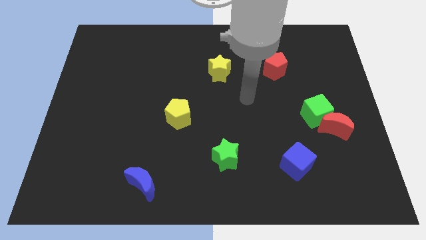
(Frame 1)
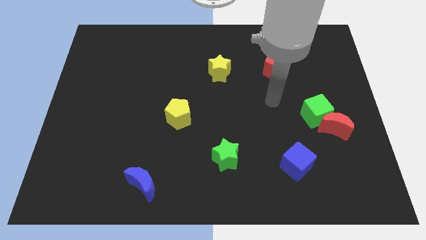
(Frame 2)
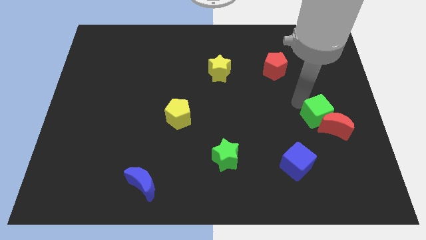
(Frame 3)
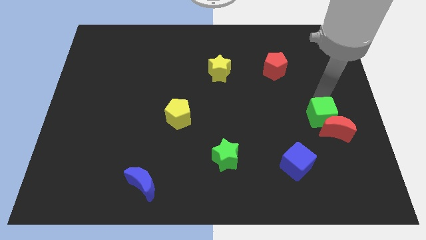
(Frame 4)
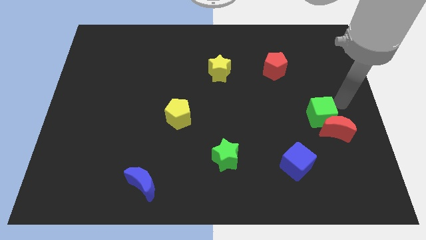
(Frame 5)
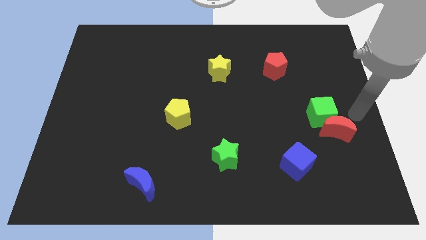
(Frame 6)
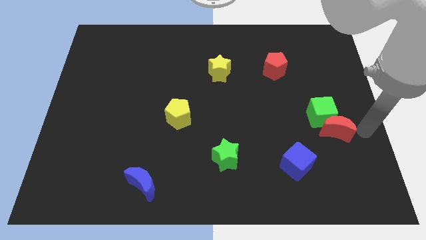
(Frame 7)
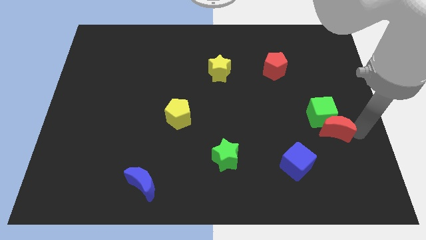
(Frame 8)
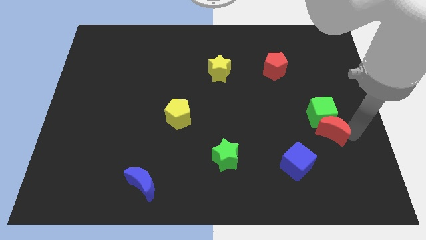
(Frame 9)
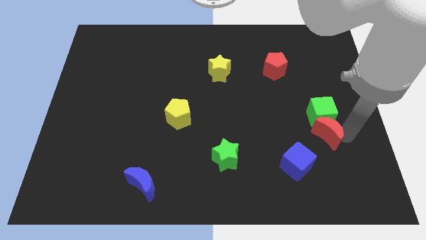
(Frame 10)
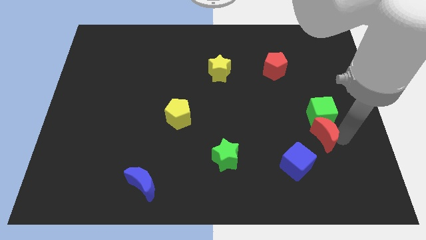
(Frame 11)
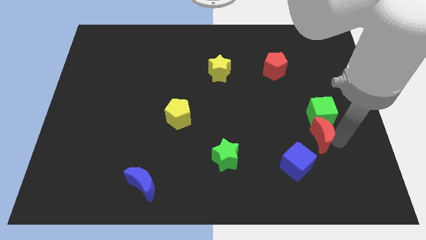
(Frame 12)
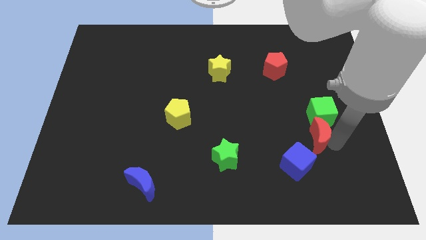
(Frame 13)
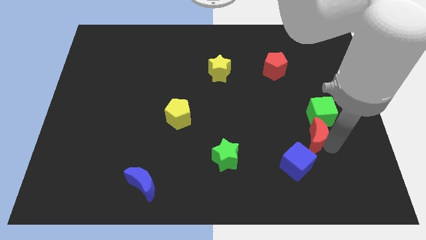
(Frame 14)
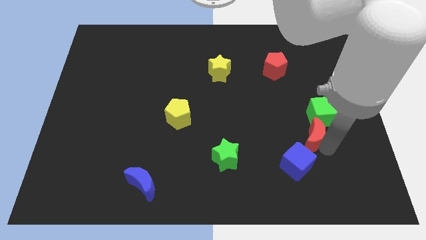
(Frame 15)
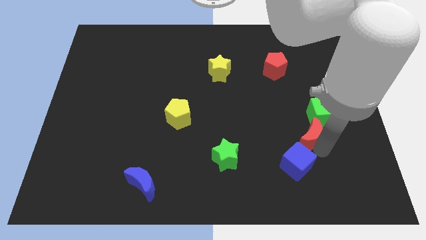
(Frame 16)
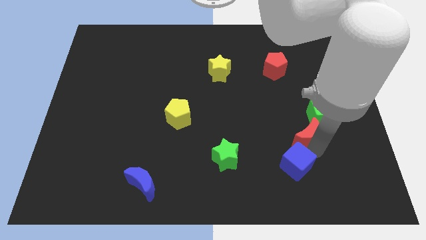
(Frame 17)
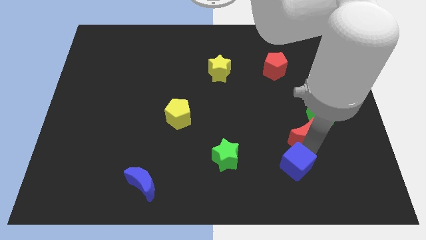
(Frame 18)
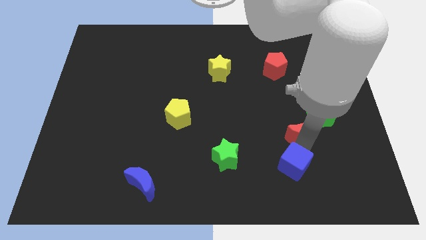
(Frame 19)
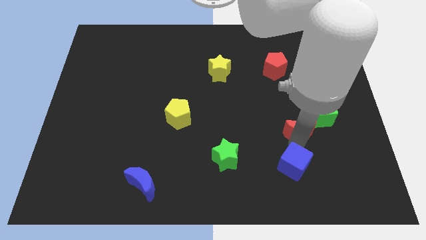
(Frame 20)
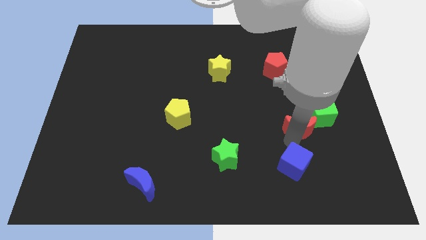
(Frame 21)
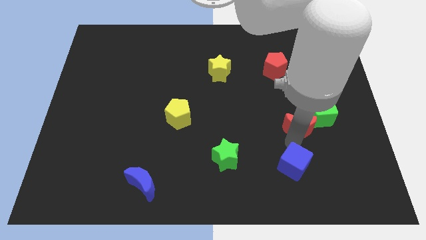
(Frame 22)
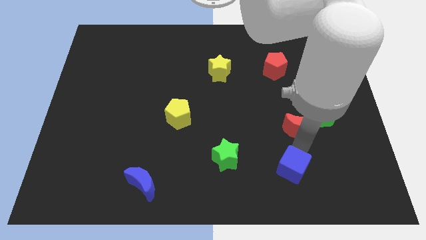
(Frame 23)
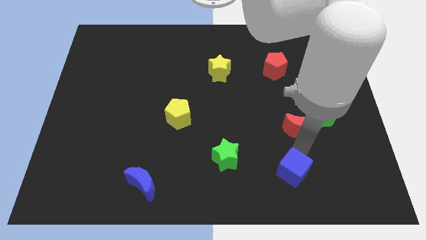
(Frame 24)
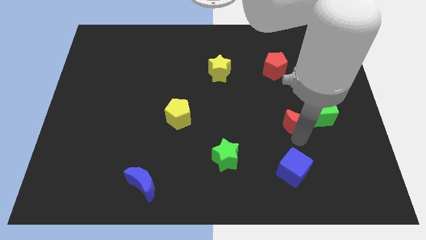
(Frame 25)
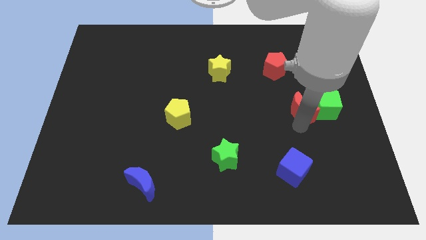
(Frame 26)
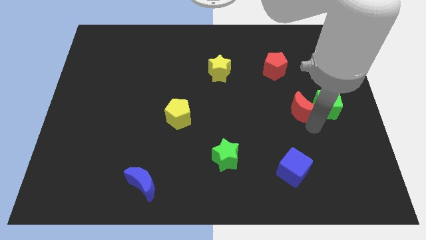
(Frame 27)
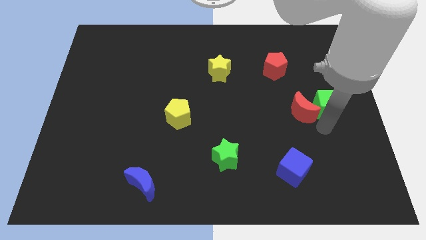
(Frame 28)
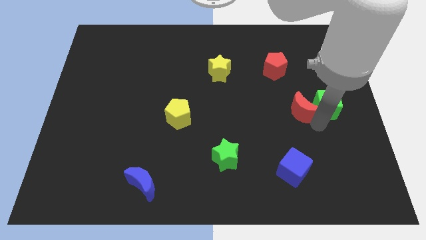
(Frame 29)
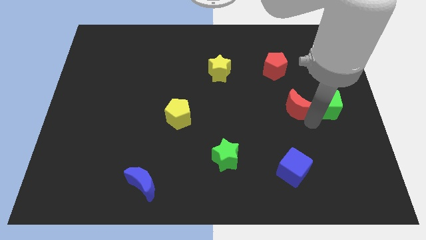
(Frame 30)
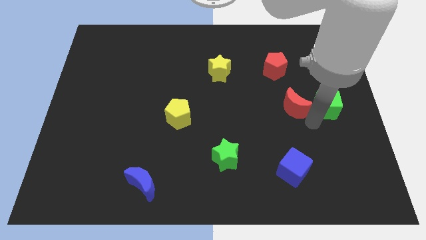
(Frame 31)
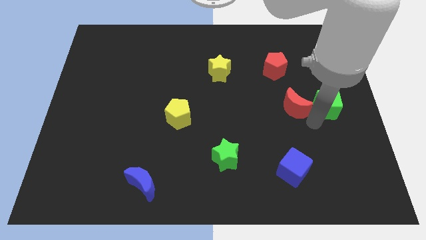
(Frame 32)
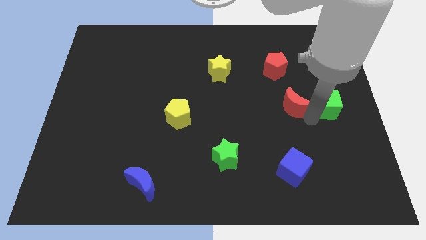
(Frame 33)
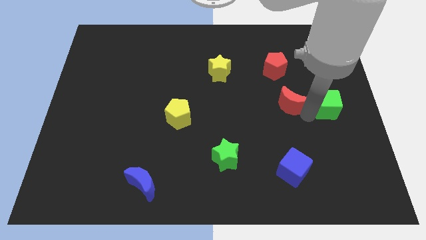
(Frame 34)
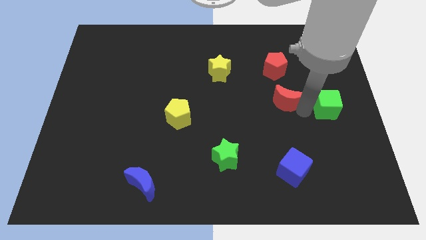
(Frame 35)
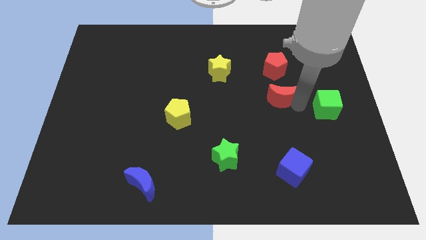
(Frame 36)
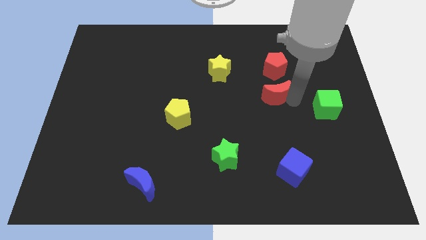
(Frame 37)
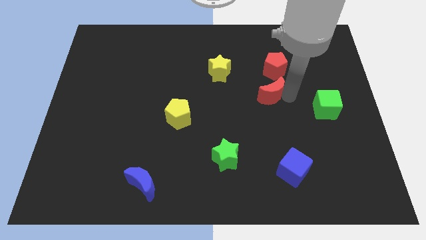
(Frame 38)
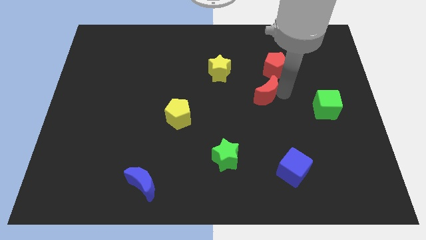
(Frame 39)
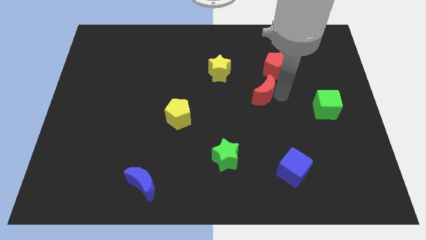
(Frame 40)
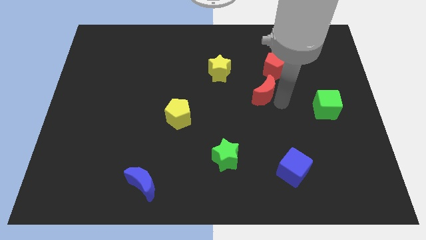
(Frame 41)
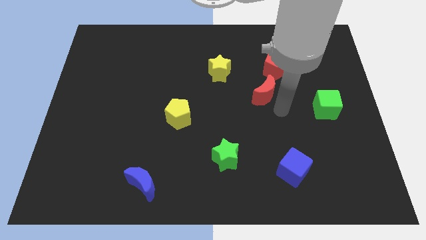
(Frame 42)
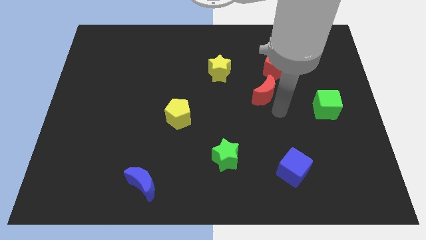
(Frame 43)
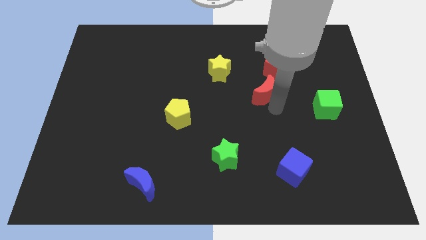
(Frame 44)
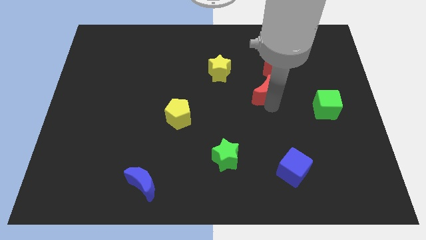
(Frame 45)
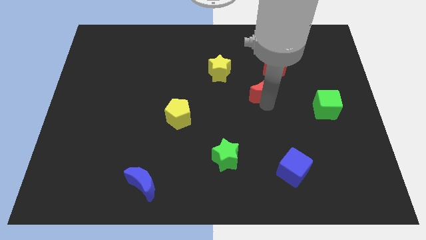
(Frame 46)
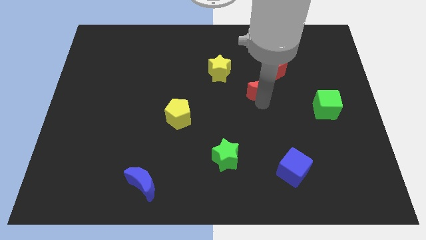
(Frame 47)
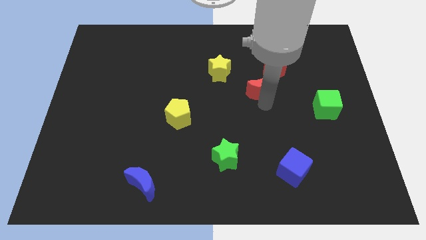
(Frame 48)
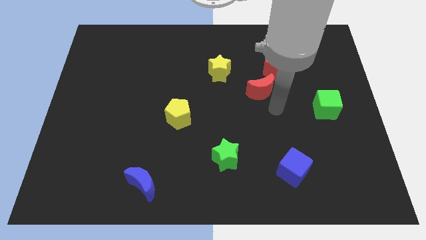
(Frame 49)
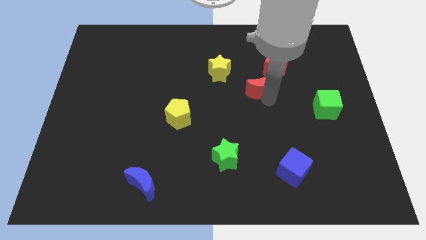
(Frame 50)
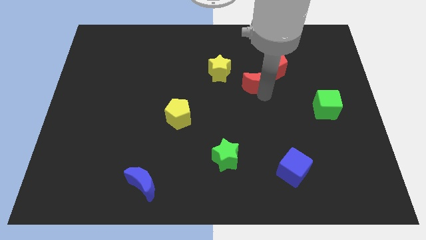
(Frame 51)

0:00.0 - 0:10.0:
slide the red moon upwards and to the left

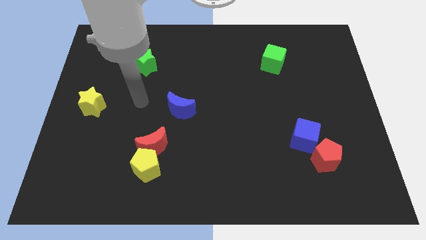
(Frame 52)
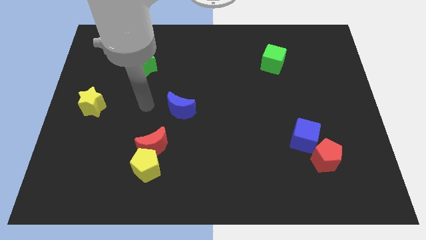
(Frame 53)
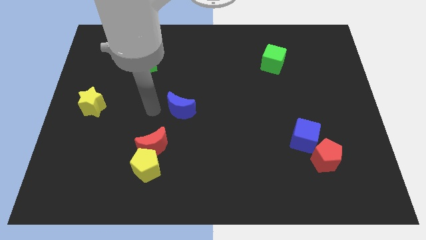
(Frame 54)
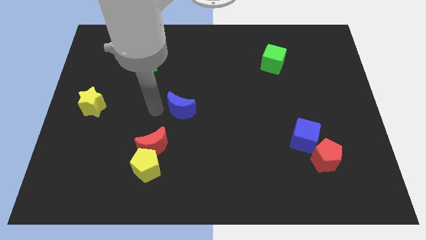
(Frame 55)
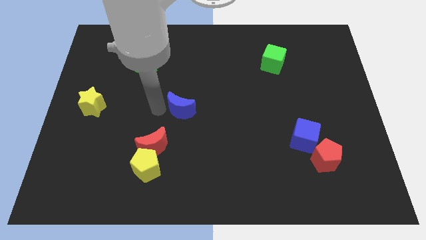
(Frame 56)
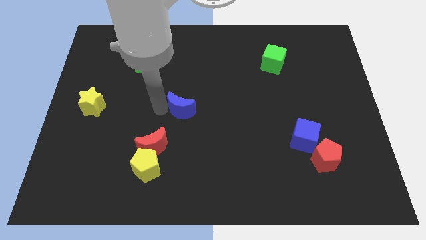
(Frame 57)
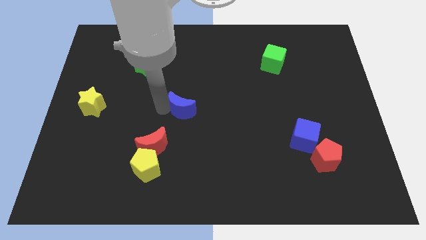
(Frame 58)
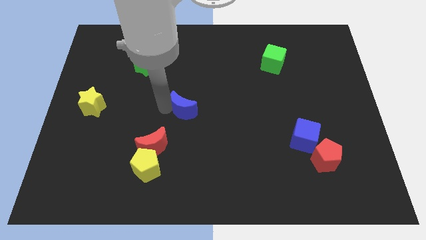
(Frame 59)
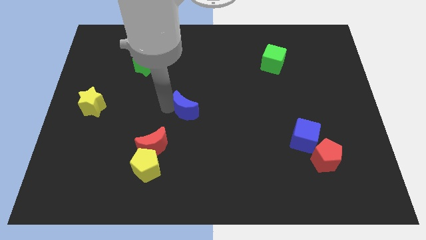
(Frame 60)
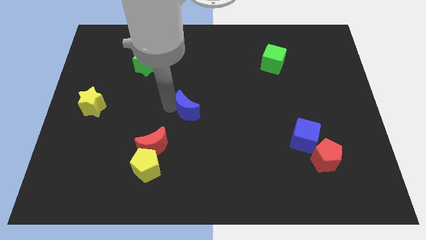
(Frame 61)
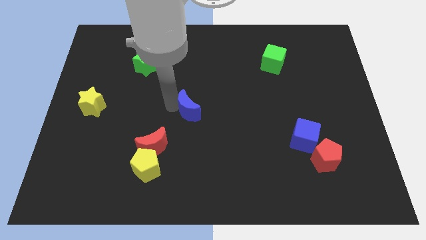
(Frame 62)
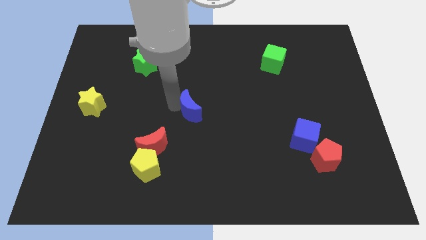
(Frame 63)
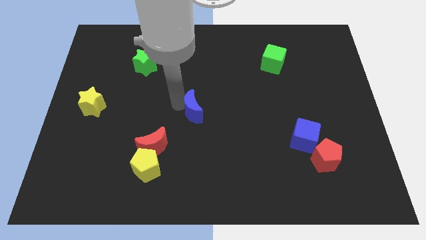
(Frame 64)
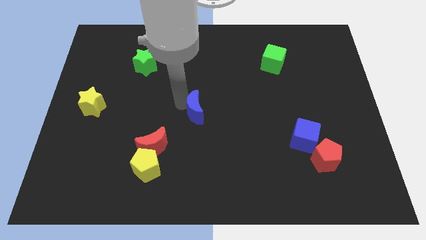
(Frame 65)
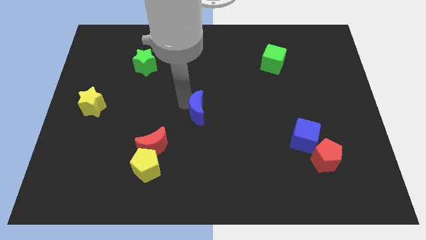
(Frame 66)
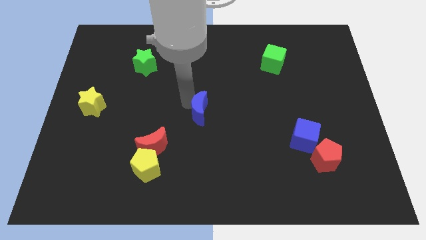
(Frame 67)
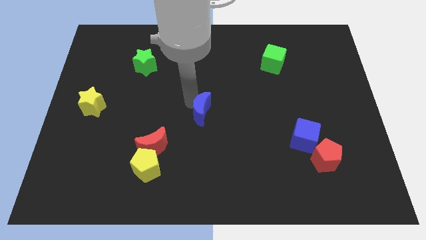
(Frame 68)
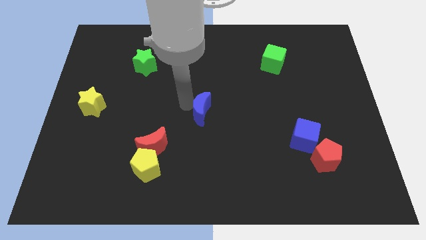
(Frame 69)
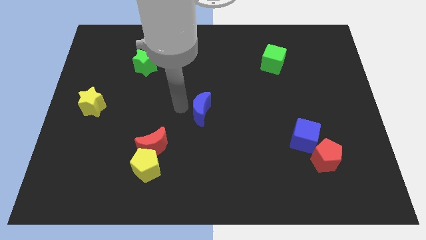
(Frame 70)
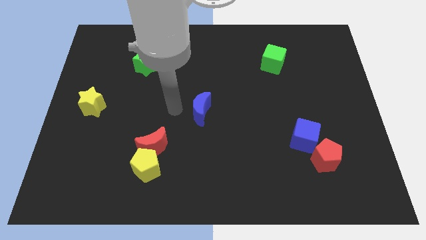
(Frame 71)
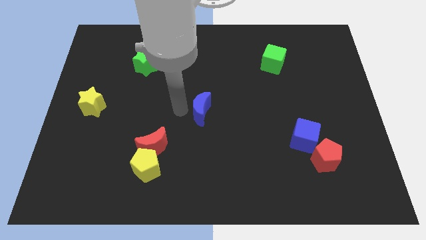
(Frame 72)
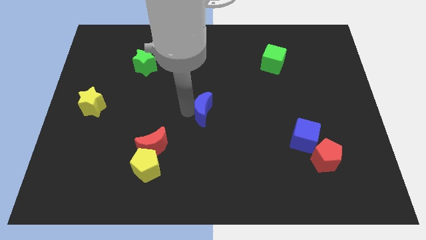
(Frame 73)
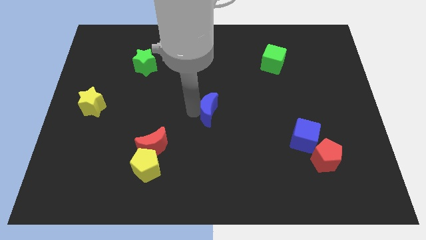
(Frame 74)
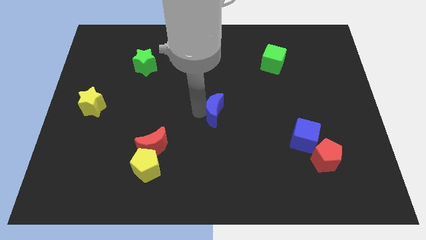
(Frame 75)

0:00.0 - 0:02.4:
push the blue moon slightly to the right

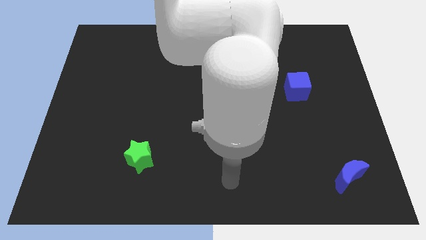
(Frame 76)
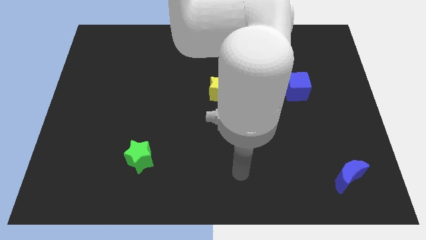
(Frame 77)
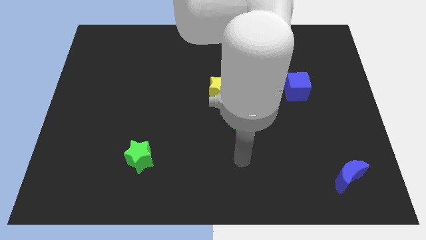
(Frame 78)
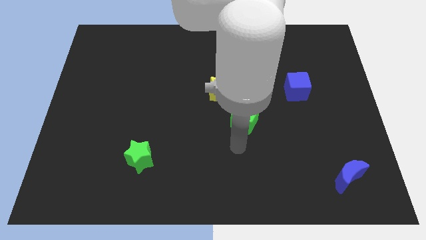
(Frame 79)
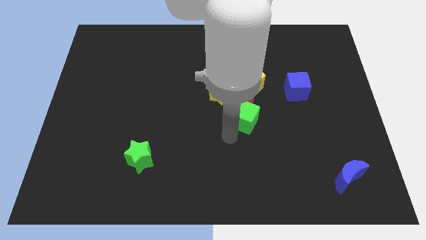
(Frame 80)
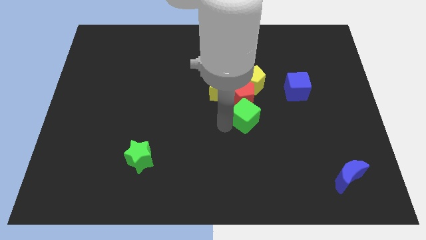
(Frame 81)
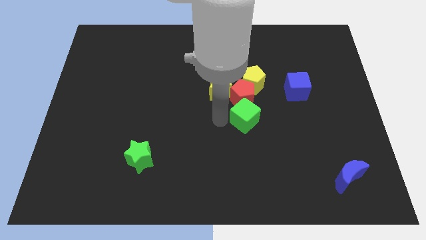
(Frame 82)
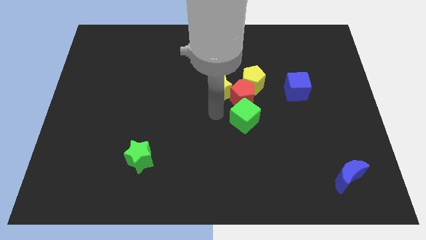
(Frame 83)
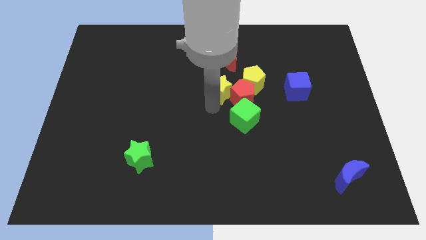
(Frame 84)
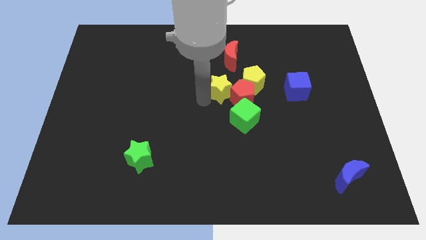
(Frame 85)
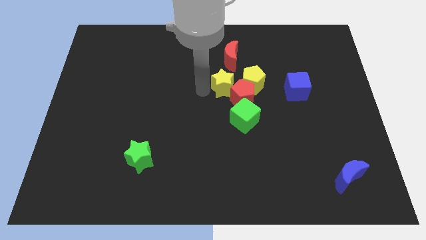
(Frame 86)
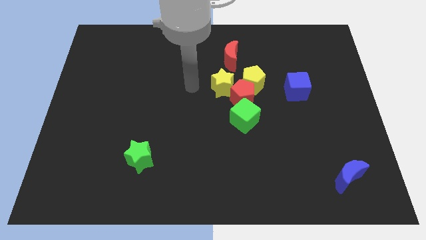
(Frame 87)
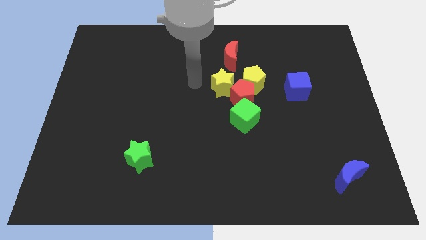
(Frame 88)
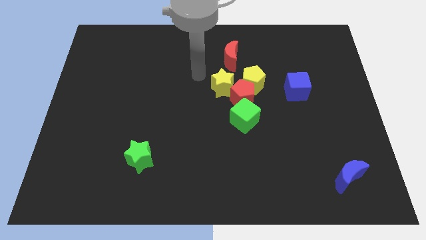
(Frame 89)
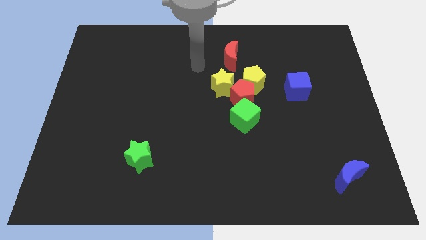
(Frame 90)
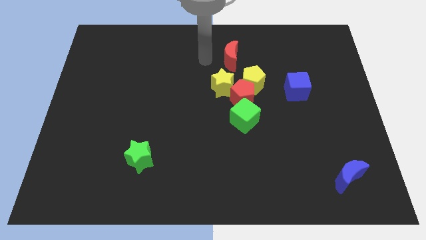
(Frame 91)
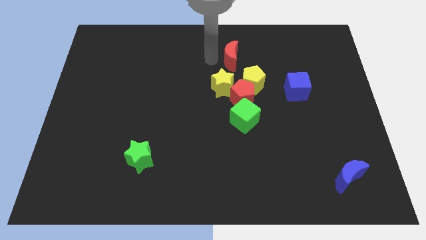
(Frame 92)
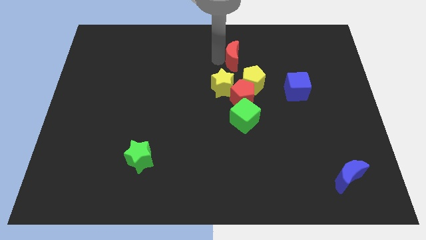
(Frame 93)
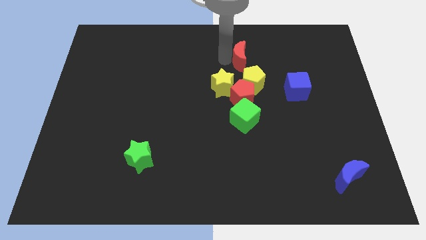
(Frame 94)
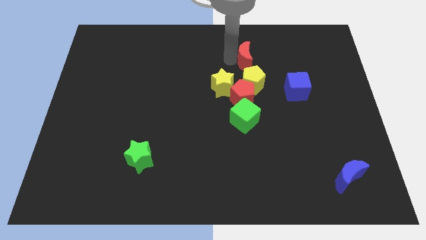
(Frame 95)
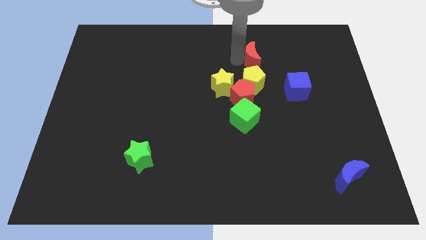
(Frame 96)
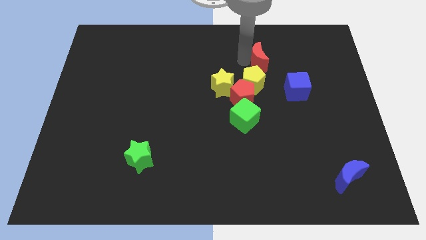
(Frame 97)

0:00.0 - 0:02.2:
slightly push the red moon right
